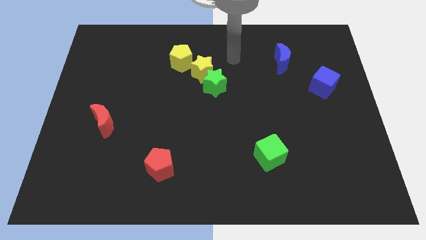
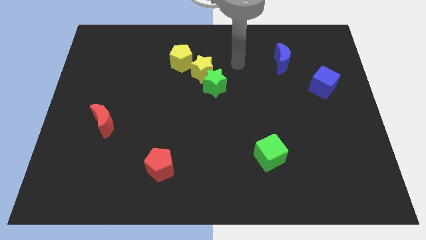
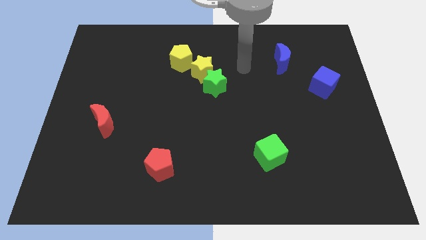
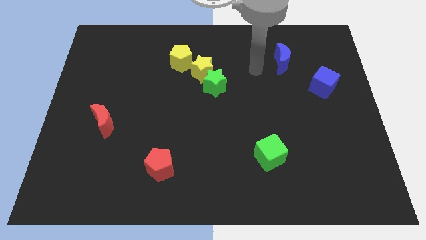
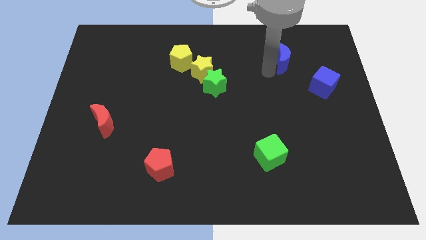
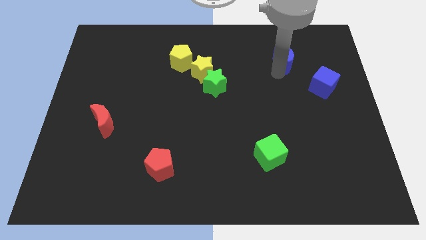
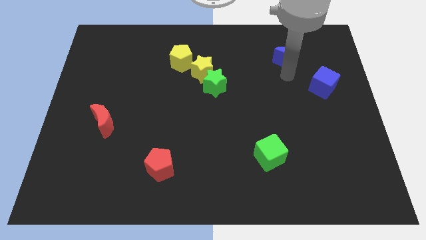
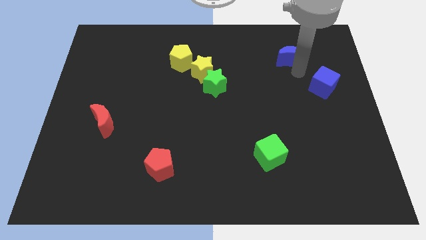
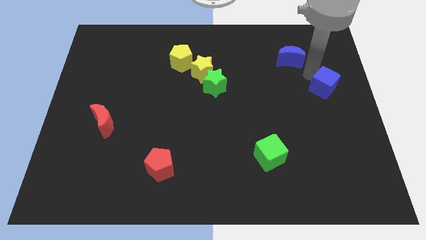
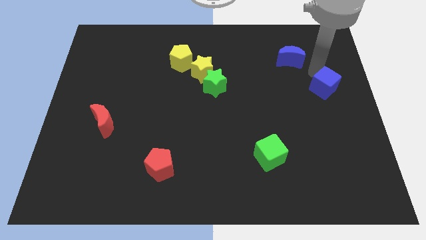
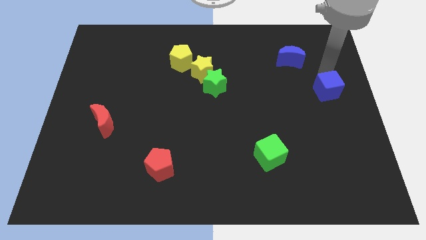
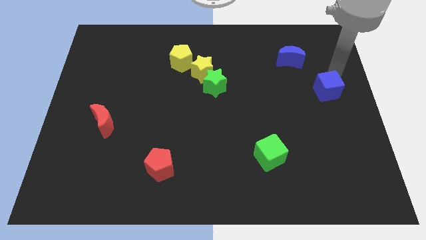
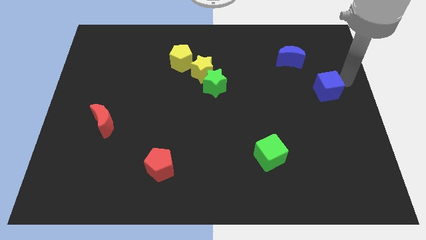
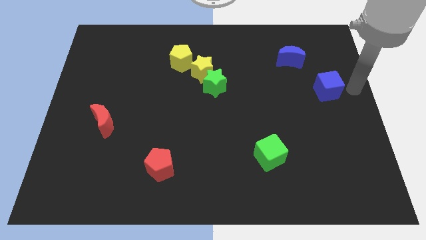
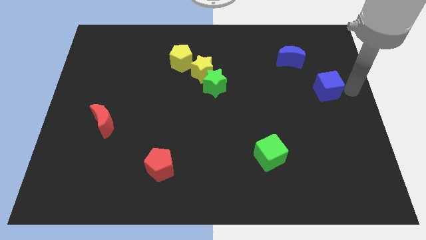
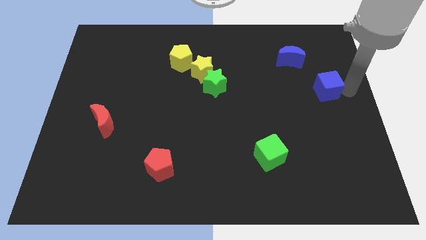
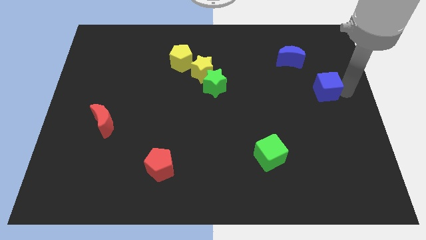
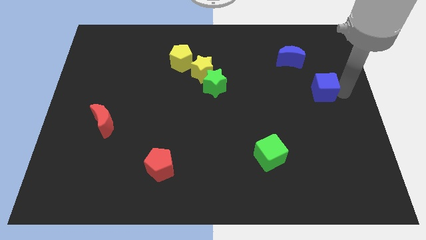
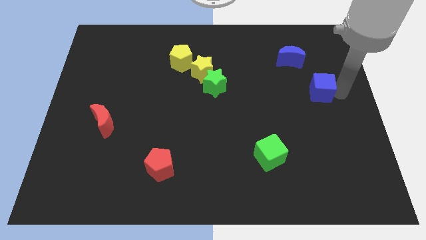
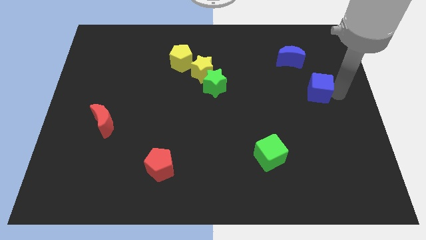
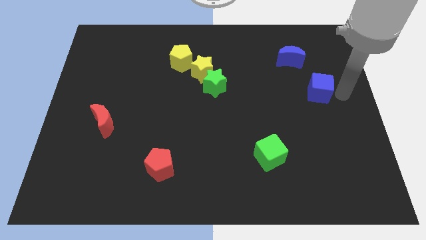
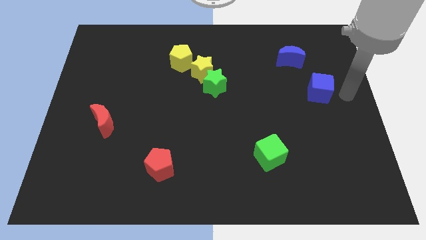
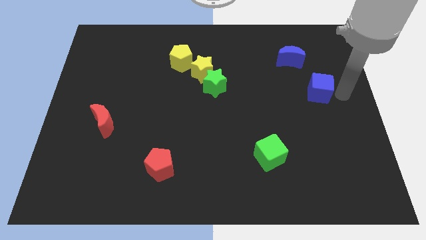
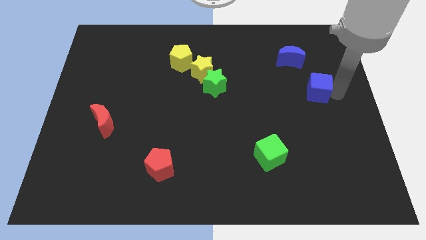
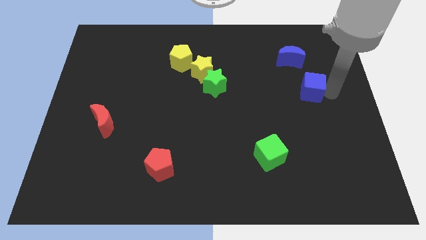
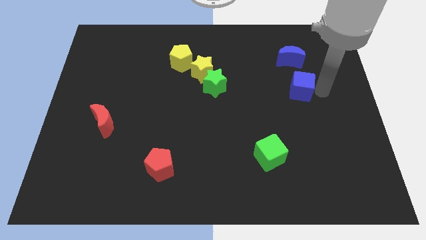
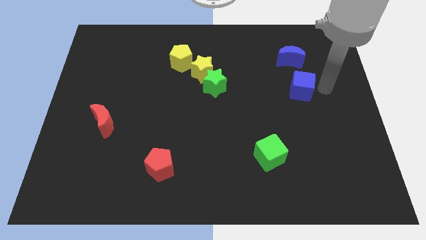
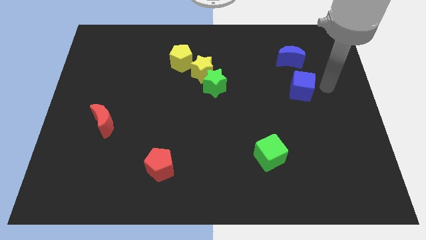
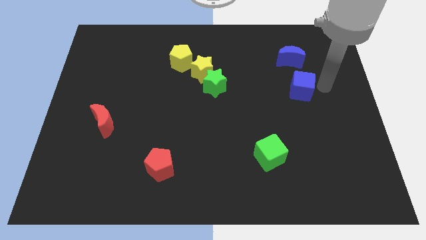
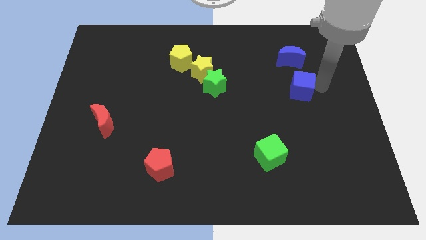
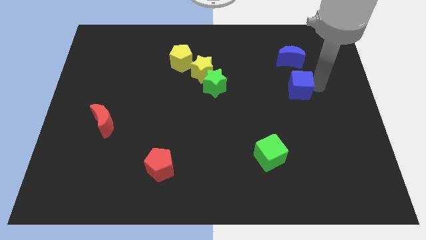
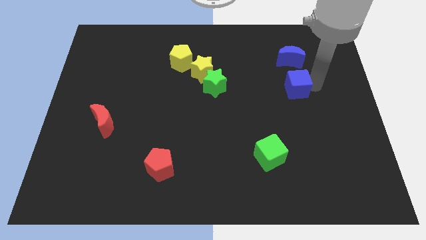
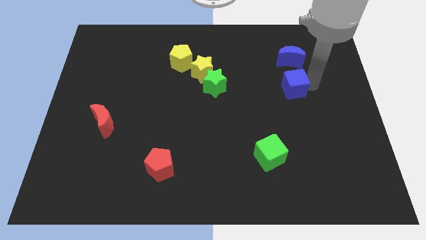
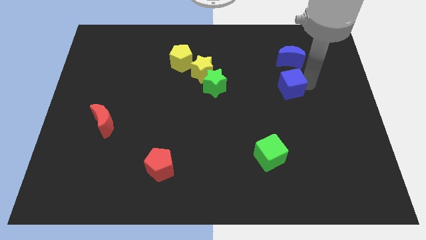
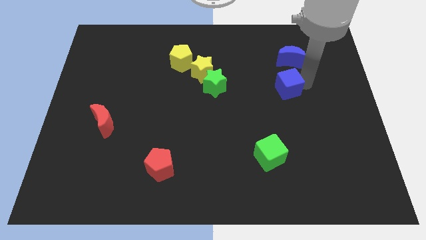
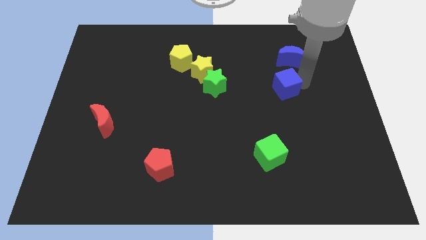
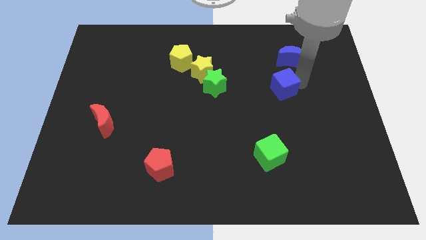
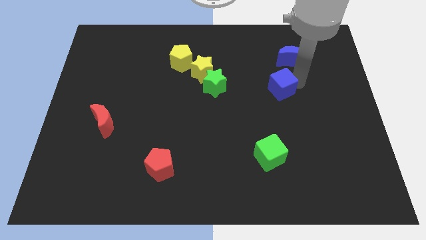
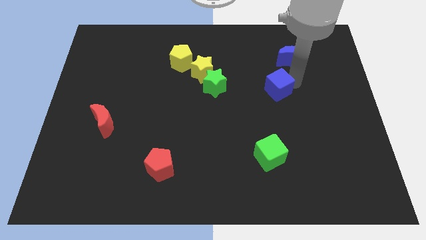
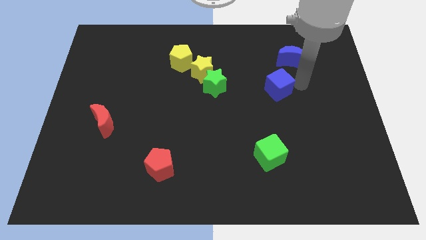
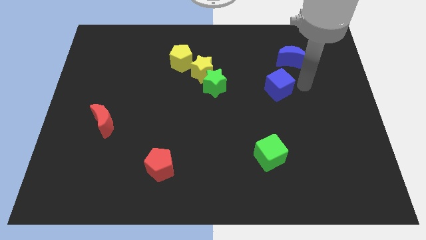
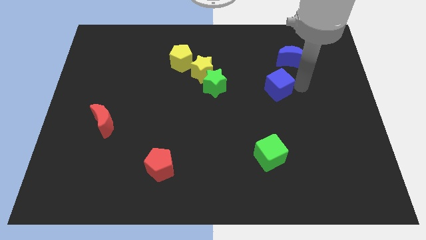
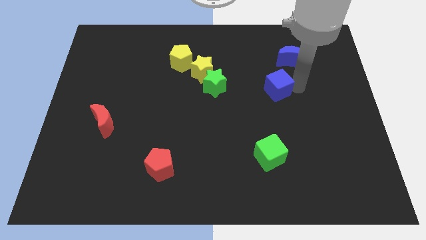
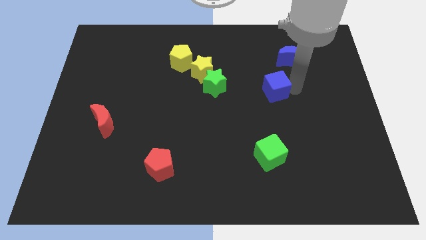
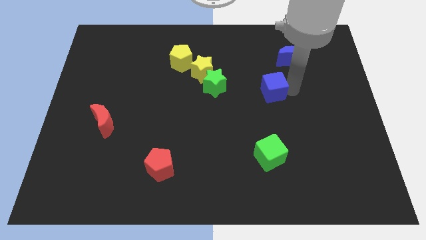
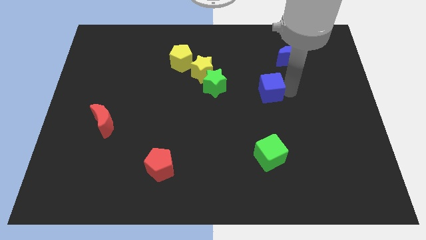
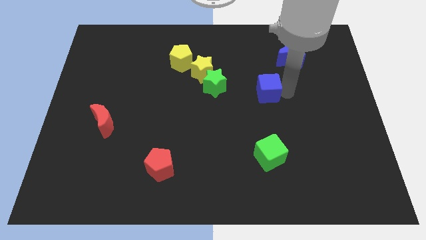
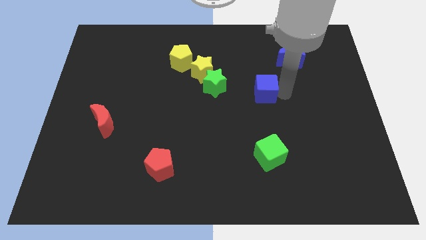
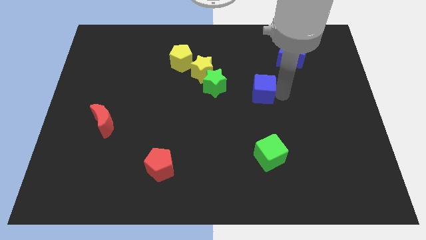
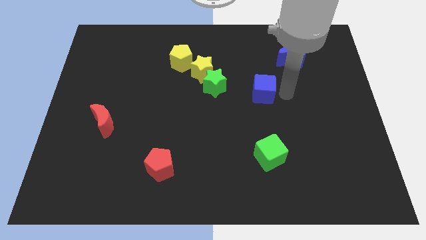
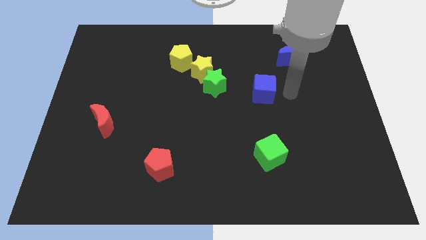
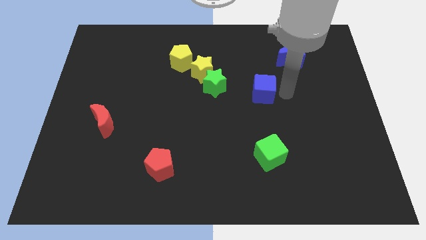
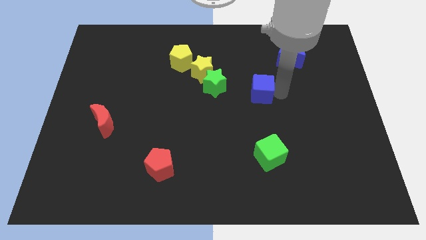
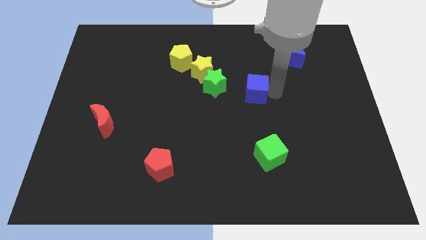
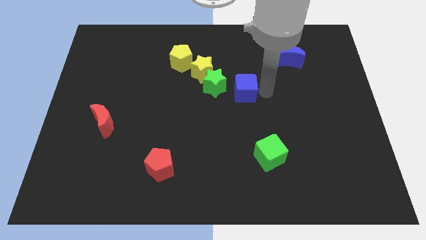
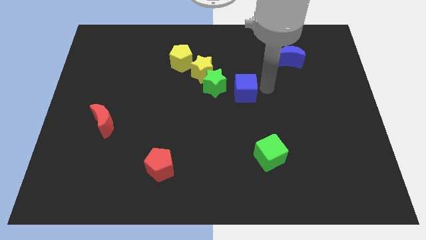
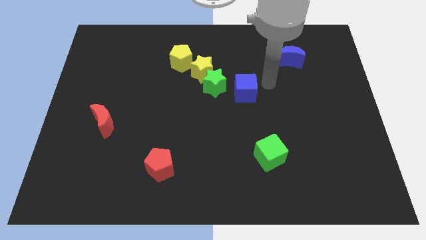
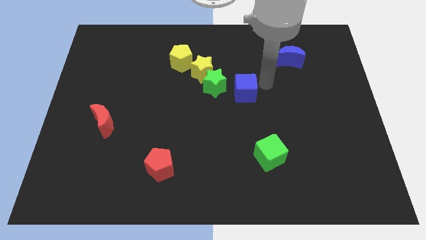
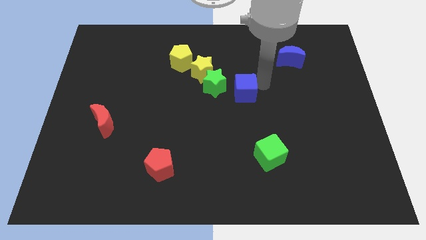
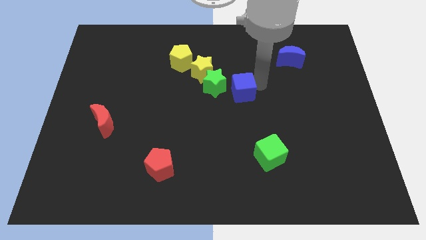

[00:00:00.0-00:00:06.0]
push the blue cube to the left

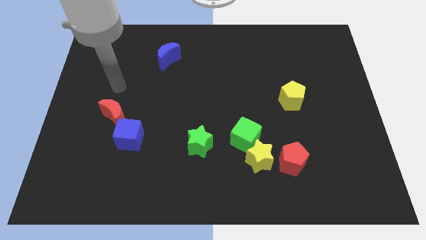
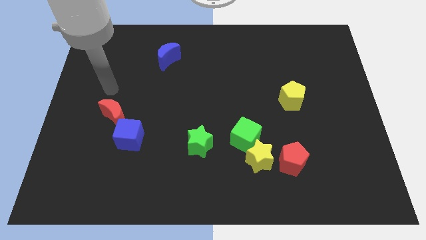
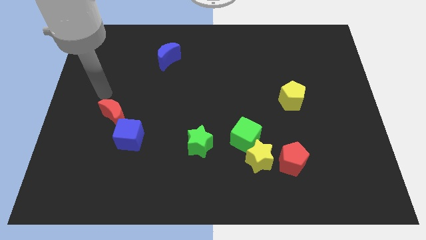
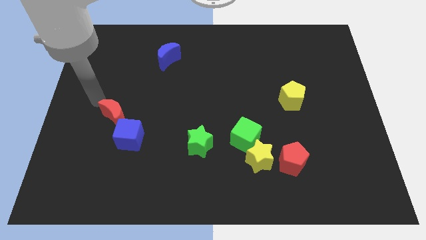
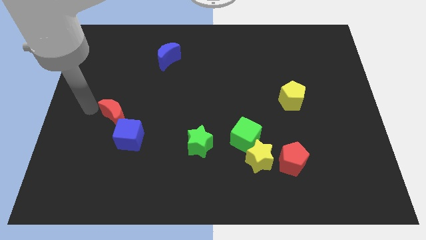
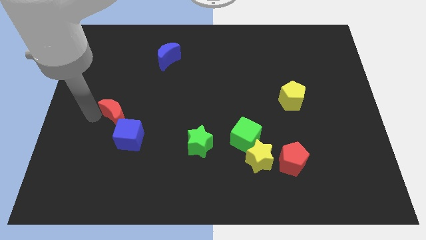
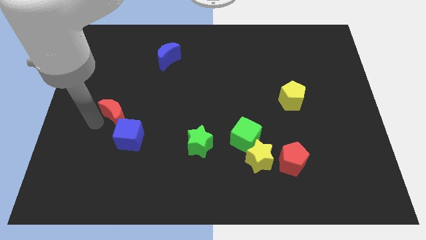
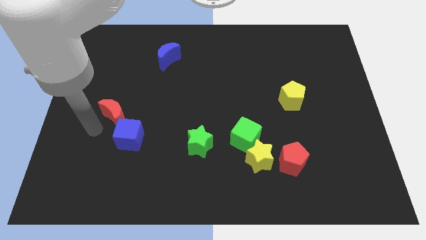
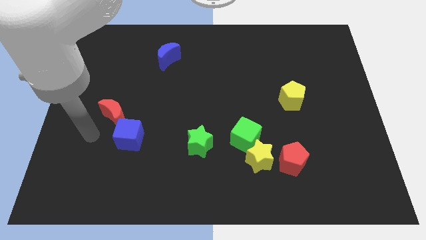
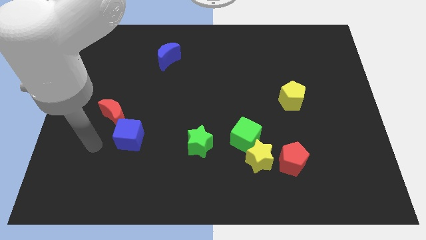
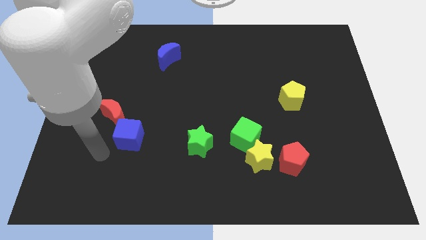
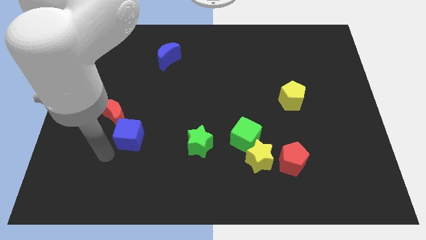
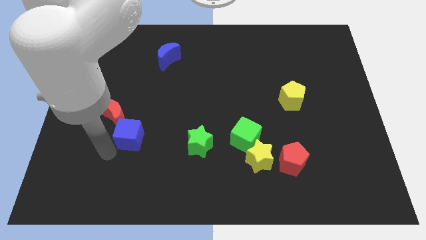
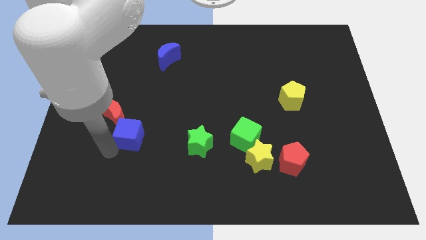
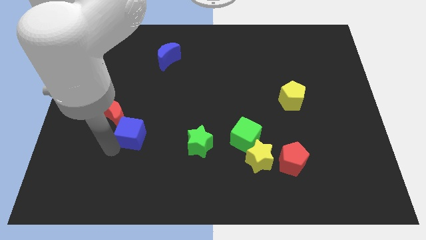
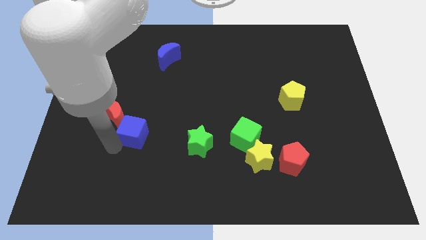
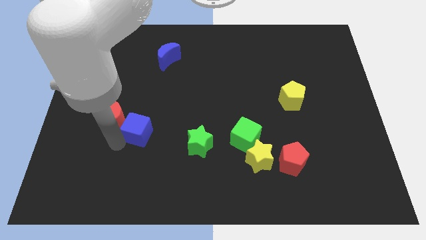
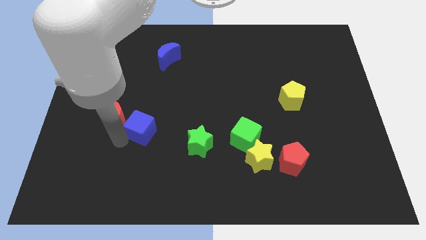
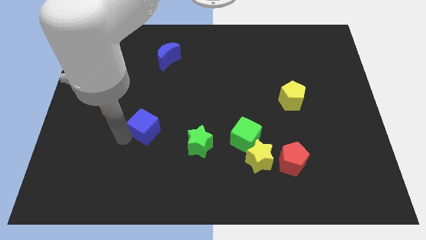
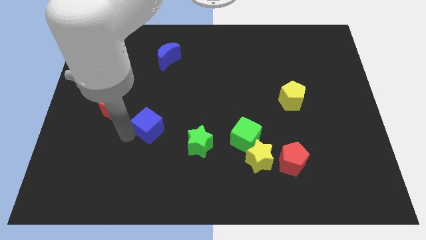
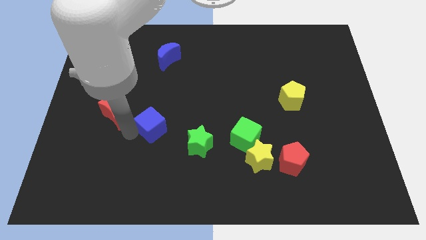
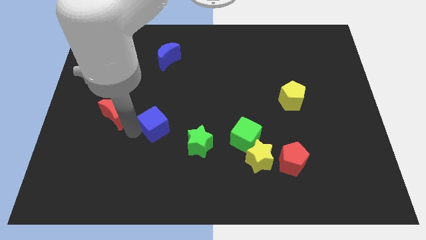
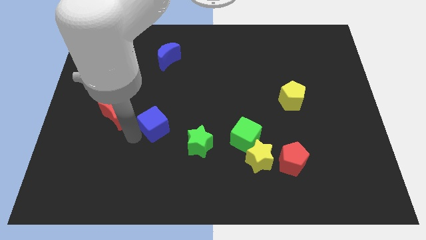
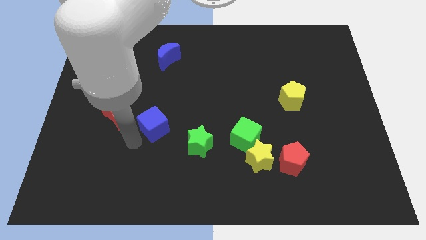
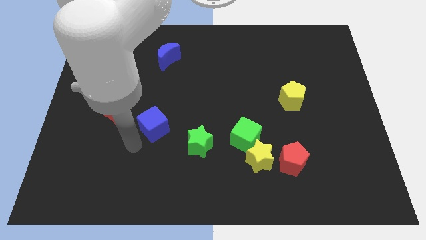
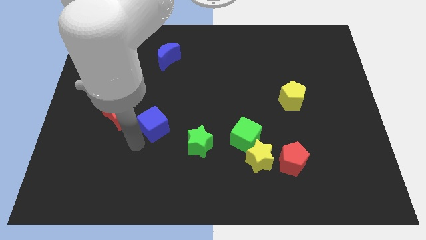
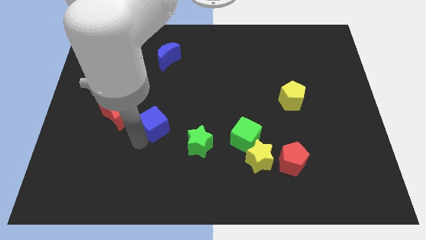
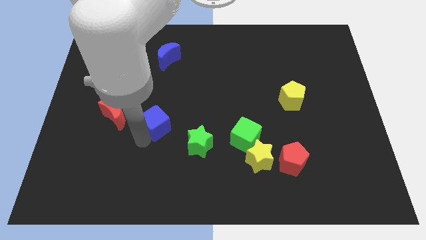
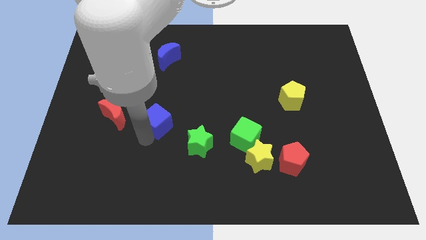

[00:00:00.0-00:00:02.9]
slightly push the blue cube upwards and then right
